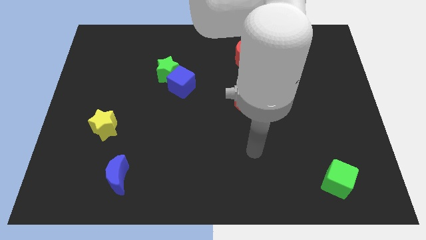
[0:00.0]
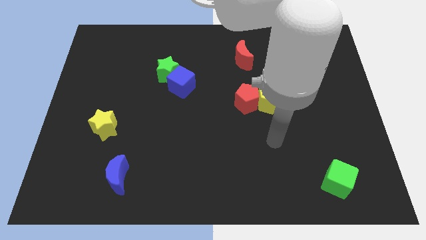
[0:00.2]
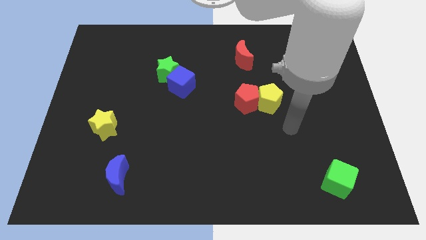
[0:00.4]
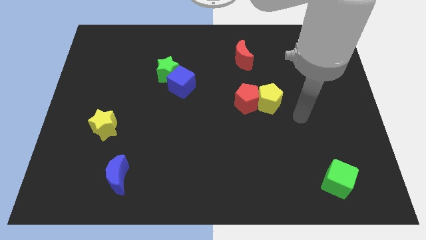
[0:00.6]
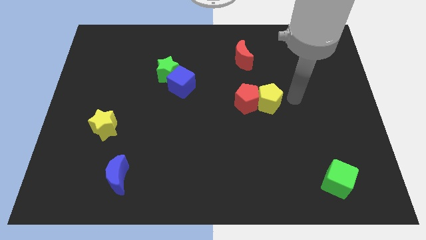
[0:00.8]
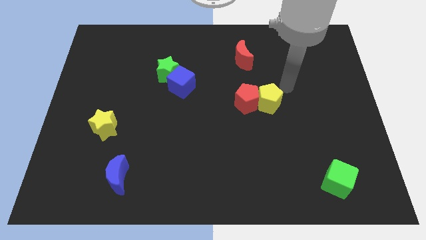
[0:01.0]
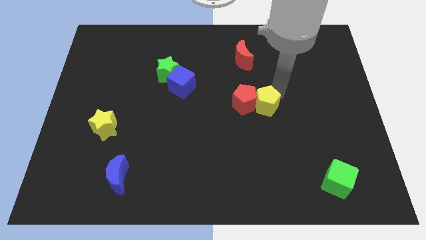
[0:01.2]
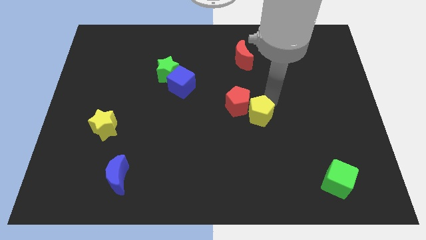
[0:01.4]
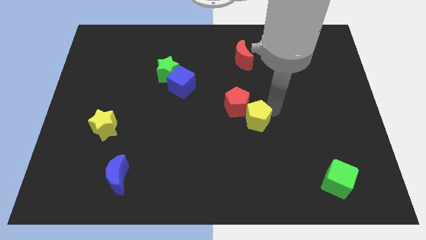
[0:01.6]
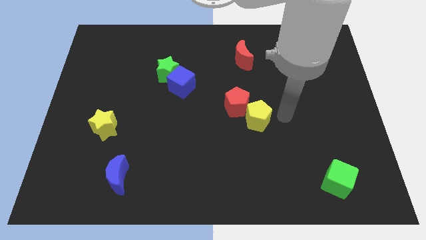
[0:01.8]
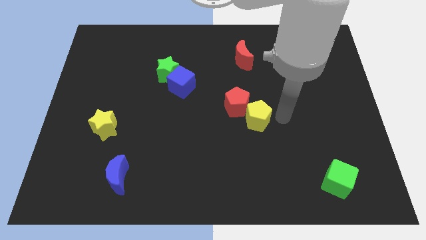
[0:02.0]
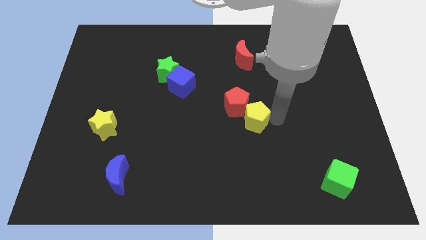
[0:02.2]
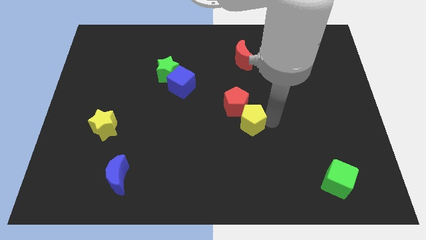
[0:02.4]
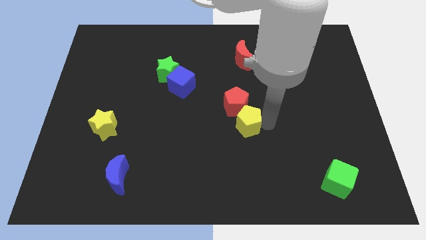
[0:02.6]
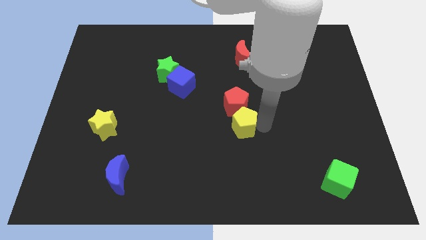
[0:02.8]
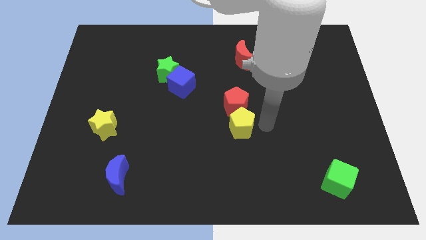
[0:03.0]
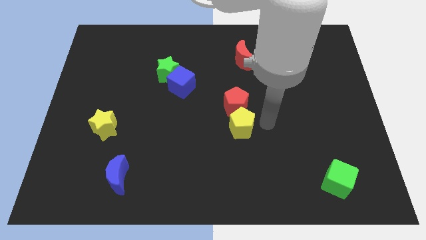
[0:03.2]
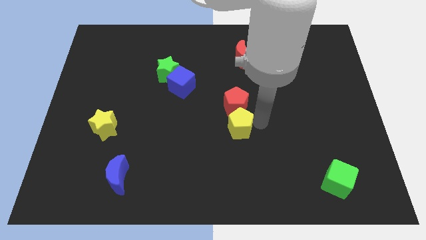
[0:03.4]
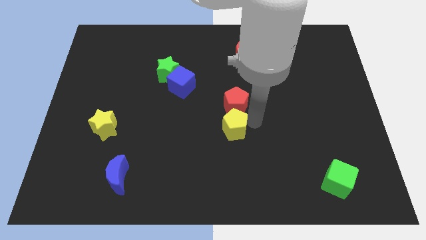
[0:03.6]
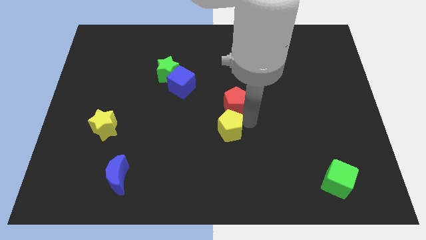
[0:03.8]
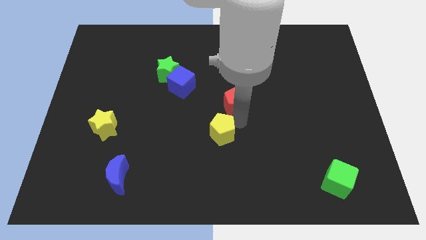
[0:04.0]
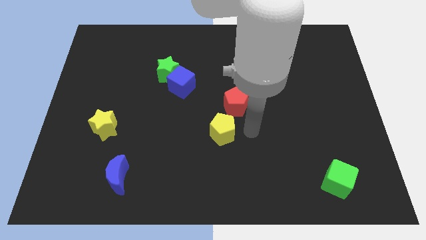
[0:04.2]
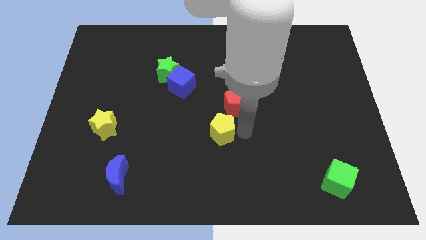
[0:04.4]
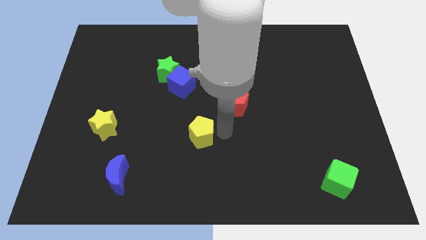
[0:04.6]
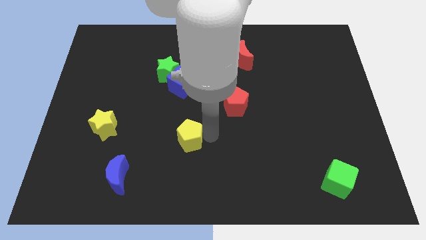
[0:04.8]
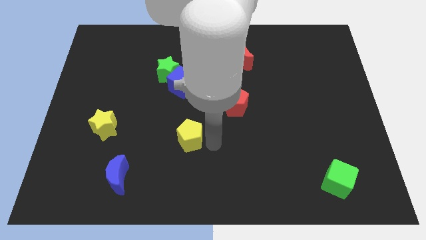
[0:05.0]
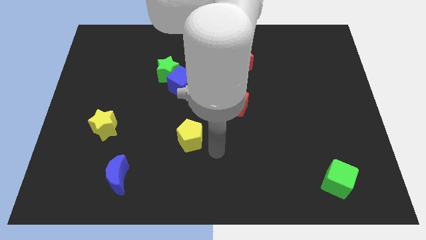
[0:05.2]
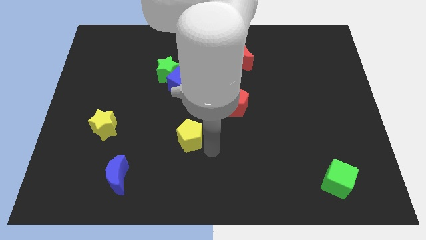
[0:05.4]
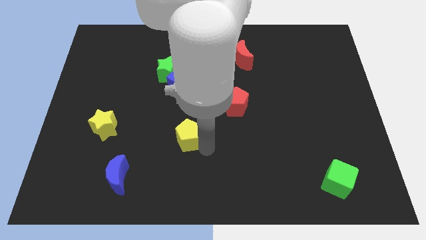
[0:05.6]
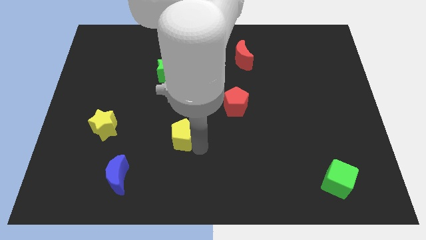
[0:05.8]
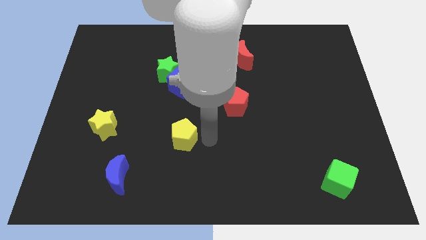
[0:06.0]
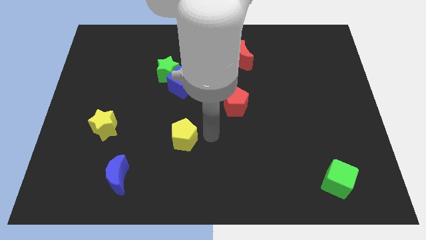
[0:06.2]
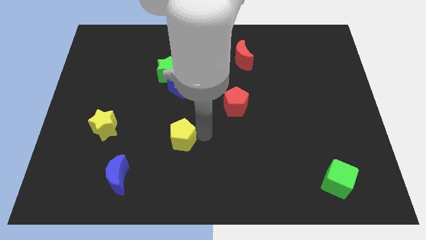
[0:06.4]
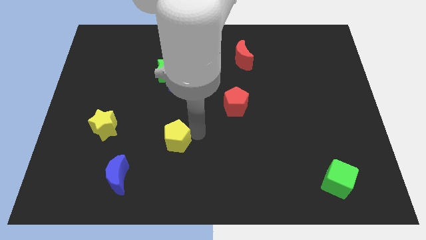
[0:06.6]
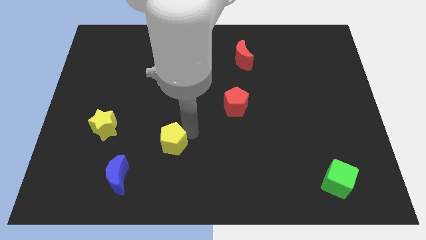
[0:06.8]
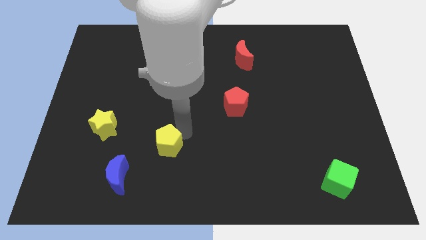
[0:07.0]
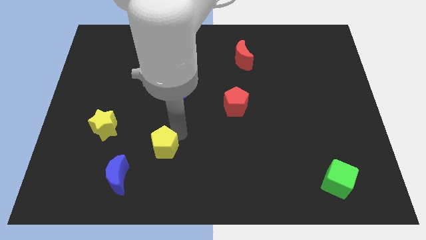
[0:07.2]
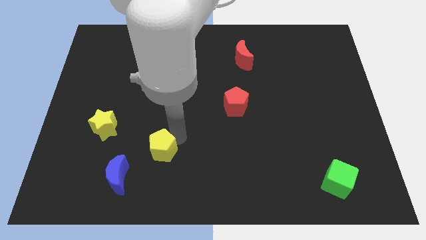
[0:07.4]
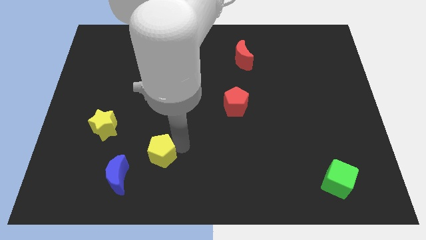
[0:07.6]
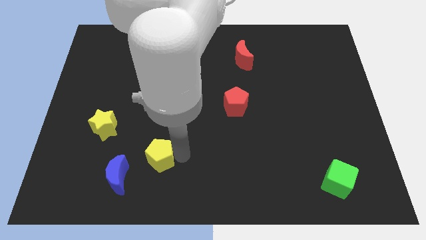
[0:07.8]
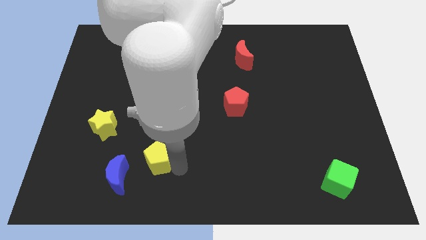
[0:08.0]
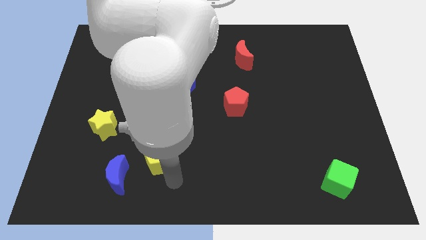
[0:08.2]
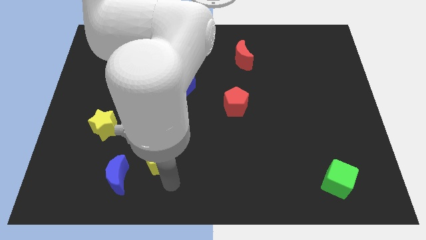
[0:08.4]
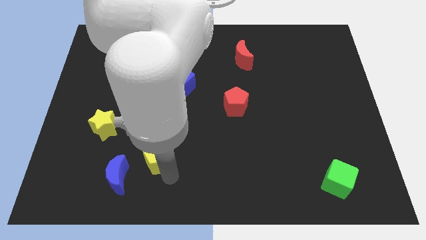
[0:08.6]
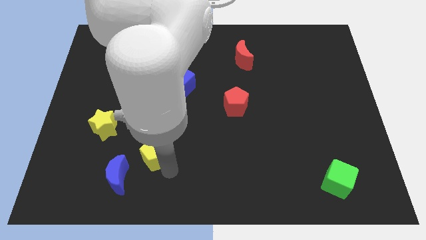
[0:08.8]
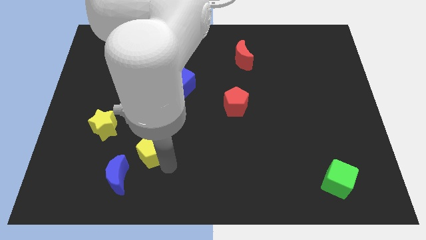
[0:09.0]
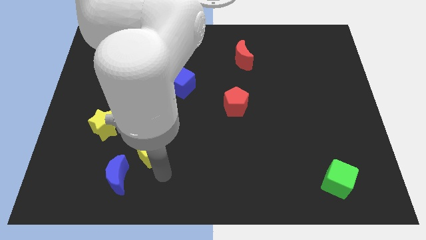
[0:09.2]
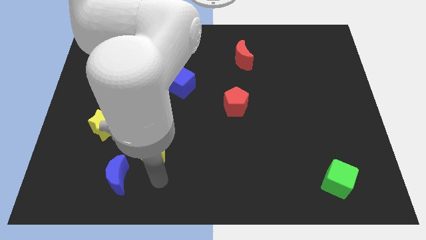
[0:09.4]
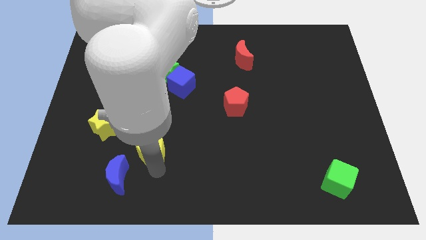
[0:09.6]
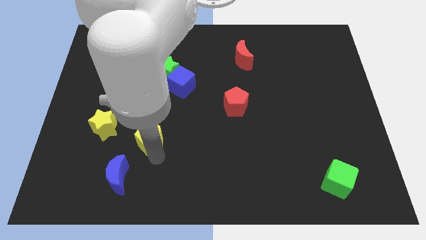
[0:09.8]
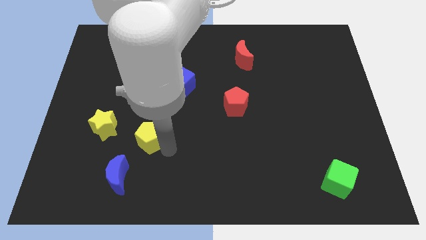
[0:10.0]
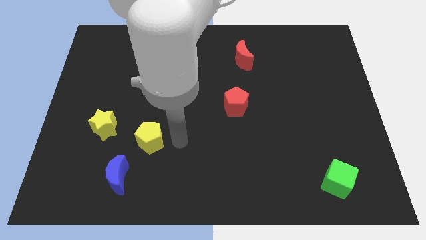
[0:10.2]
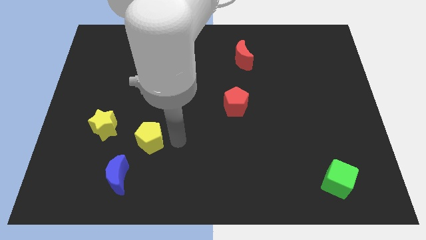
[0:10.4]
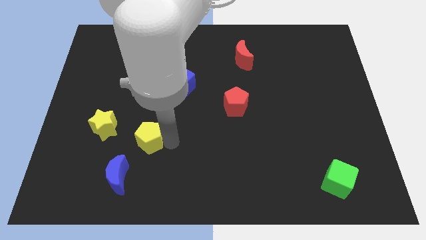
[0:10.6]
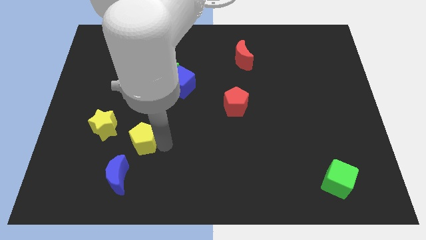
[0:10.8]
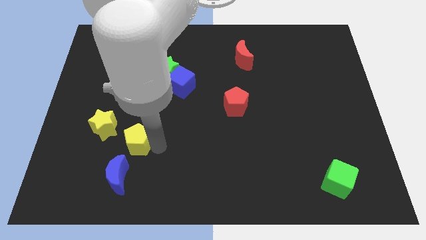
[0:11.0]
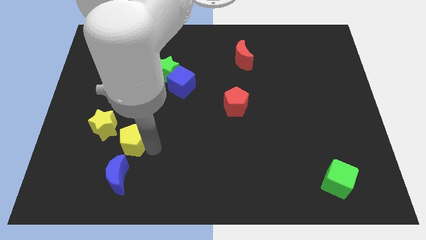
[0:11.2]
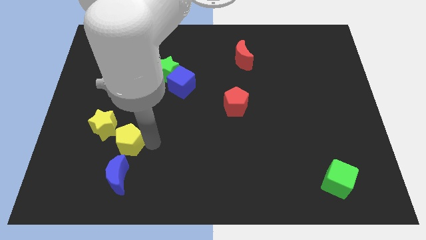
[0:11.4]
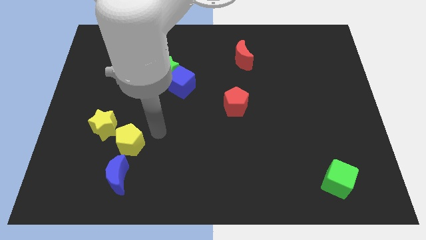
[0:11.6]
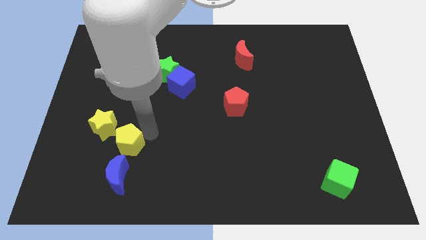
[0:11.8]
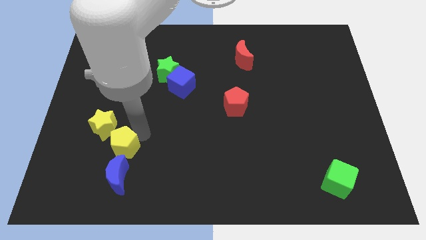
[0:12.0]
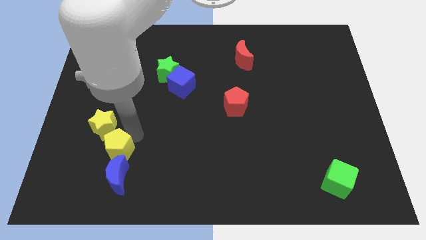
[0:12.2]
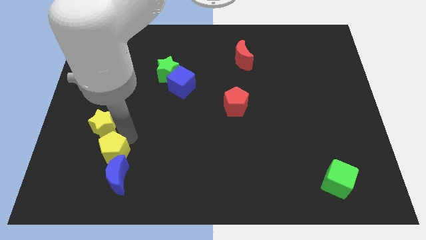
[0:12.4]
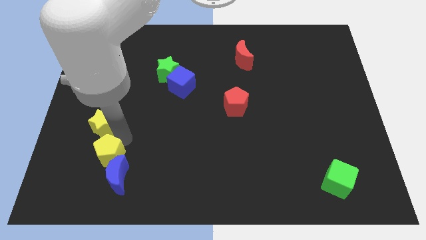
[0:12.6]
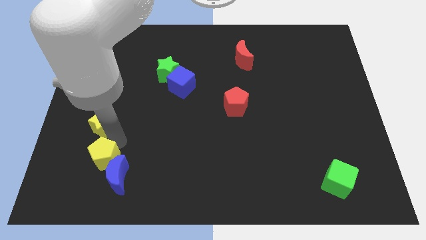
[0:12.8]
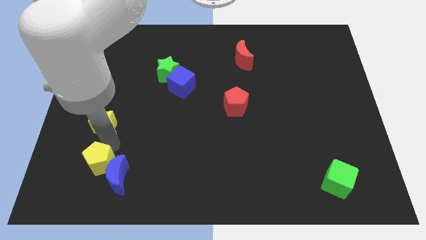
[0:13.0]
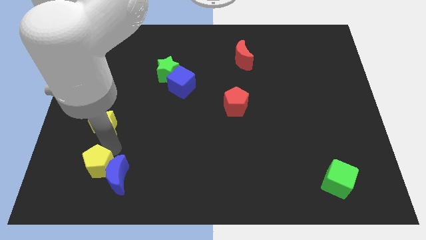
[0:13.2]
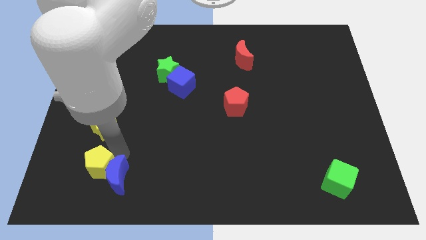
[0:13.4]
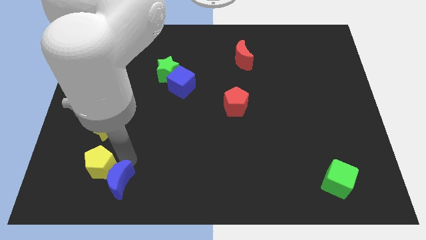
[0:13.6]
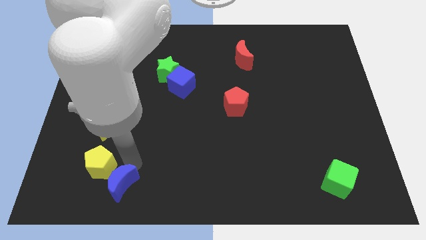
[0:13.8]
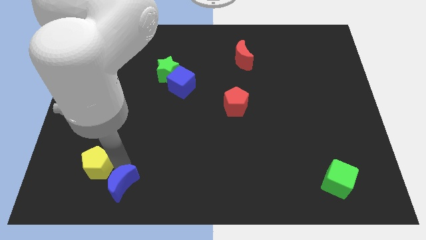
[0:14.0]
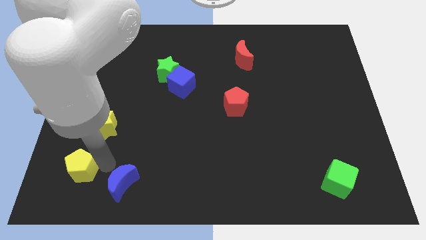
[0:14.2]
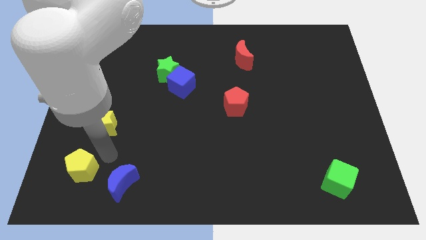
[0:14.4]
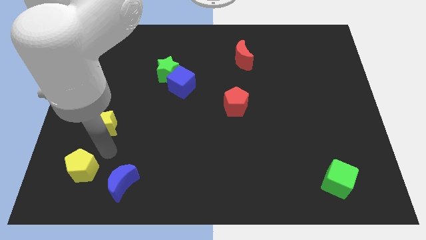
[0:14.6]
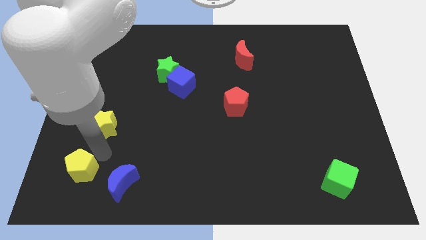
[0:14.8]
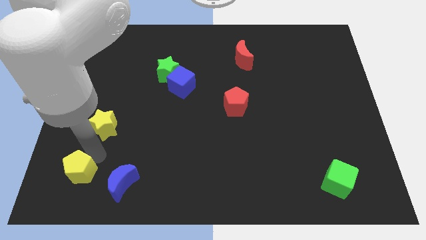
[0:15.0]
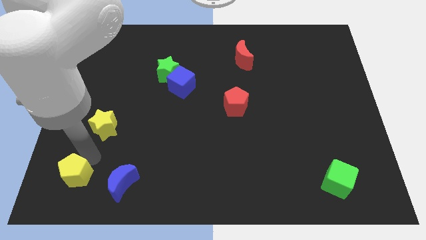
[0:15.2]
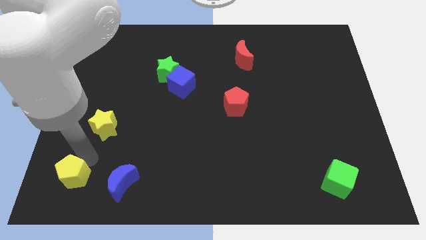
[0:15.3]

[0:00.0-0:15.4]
push the yellow pentagon to the bottom left corner
